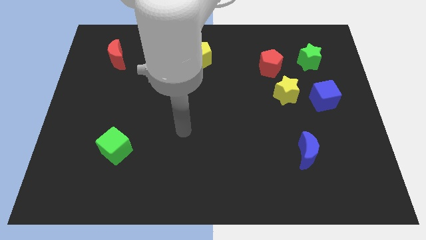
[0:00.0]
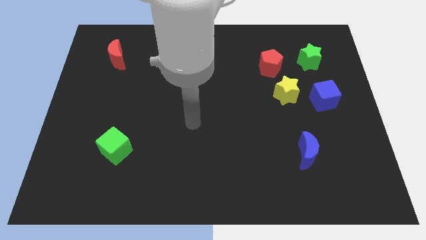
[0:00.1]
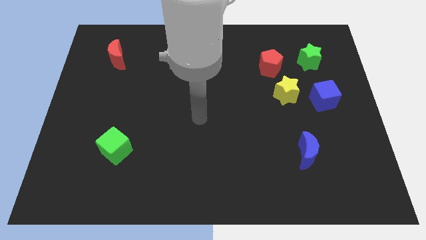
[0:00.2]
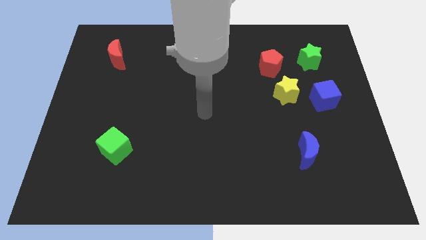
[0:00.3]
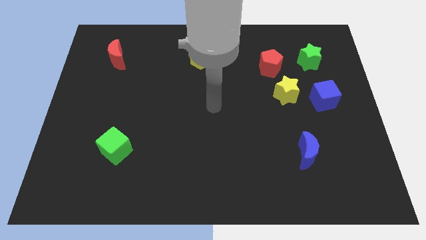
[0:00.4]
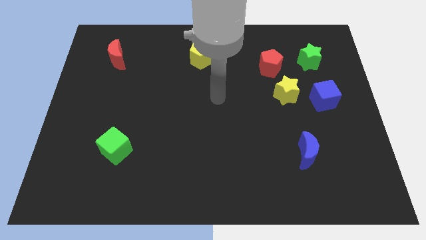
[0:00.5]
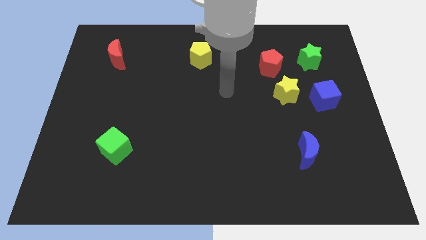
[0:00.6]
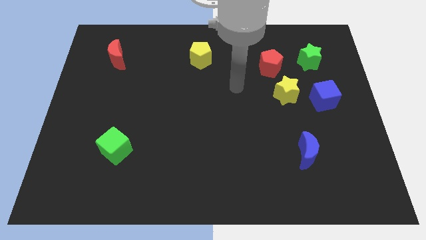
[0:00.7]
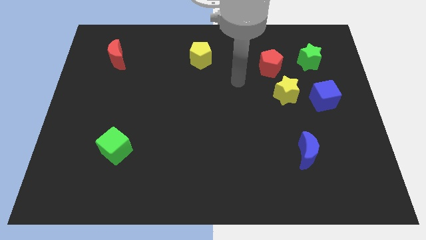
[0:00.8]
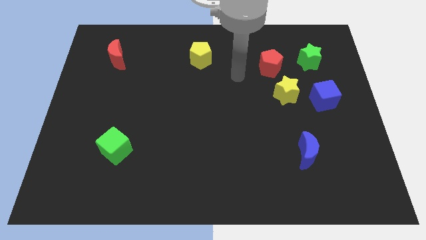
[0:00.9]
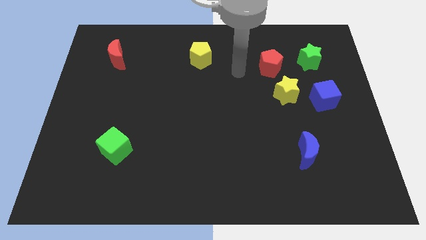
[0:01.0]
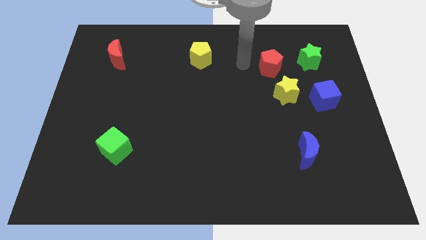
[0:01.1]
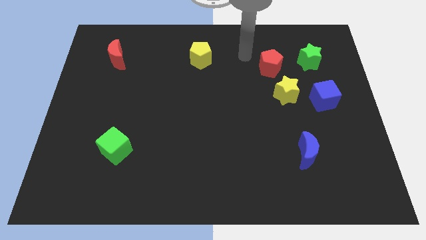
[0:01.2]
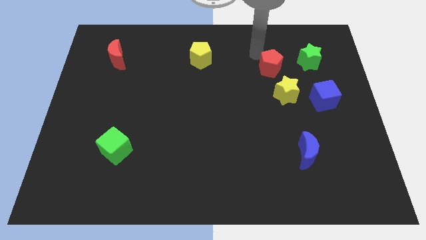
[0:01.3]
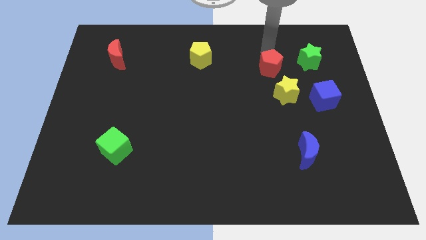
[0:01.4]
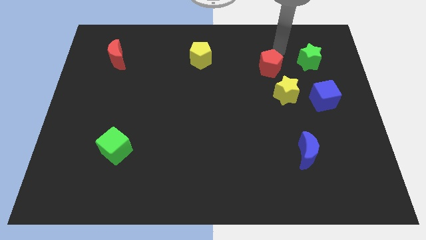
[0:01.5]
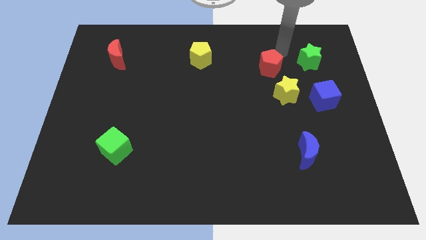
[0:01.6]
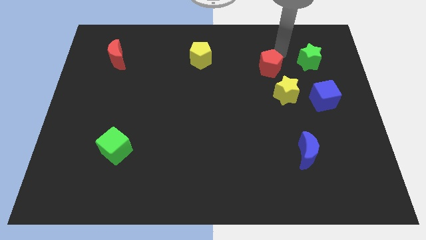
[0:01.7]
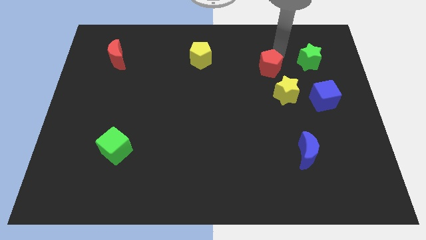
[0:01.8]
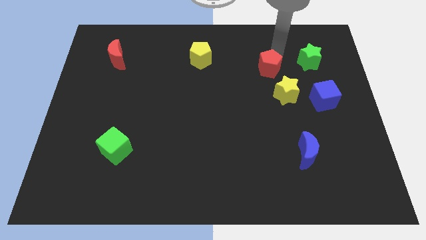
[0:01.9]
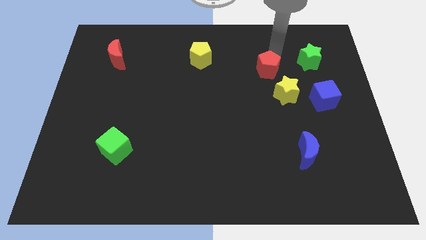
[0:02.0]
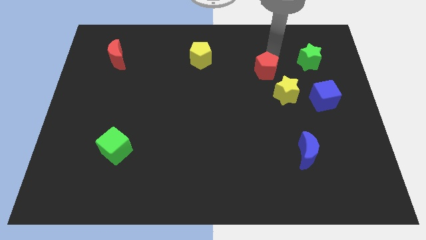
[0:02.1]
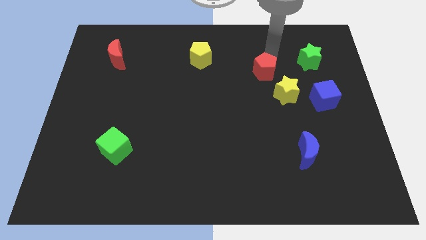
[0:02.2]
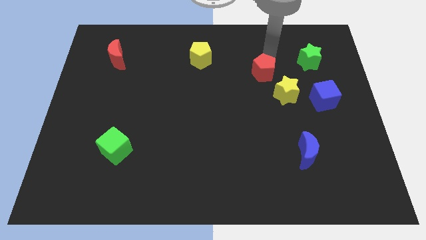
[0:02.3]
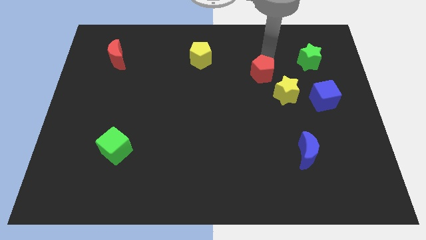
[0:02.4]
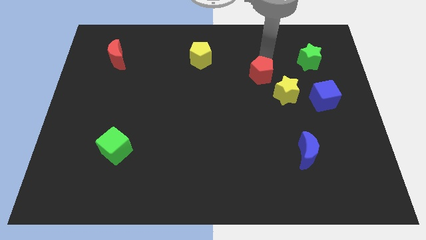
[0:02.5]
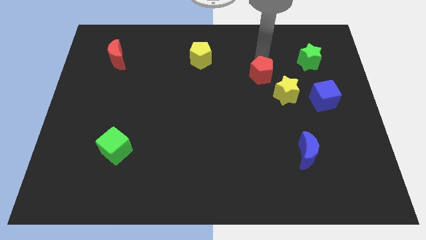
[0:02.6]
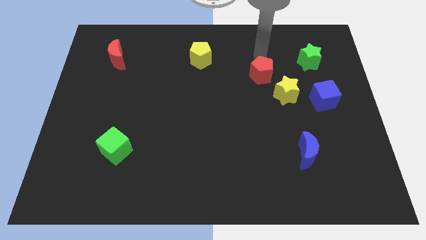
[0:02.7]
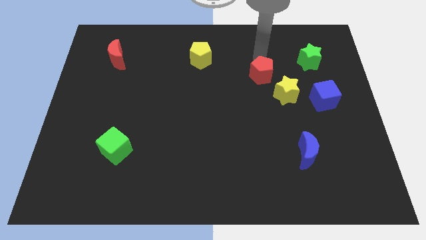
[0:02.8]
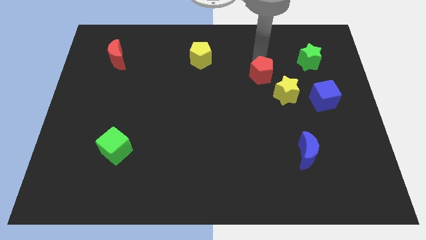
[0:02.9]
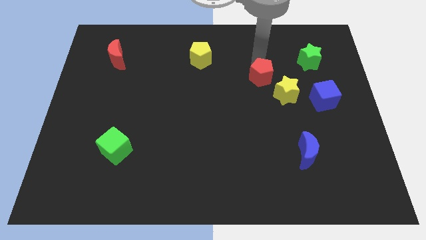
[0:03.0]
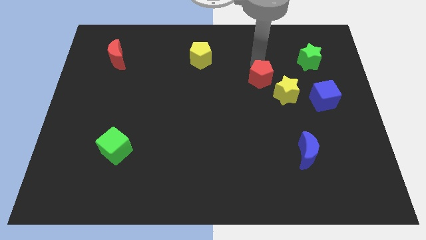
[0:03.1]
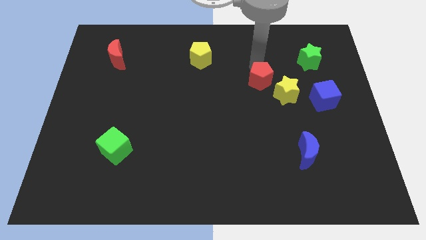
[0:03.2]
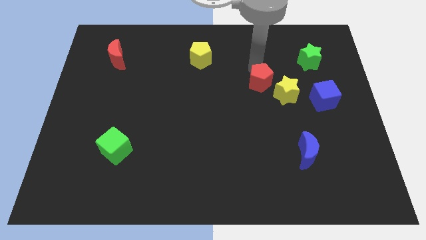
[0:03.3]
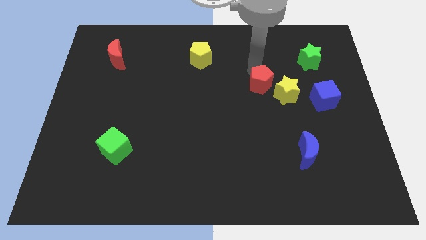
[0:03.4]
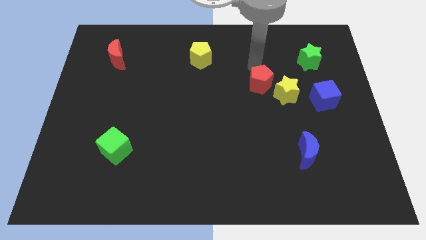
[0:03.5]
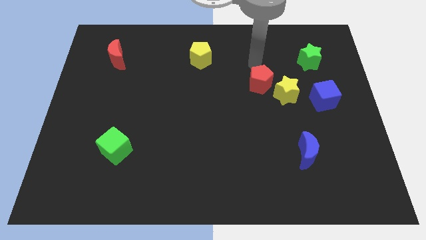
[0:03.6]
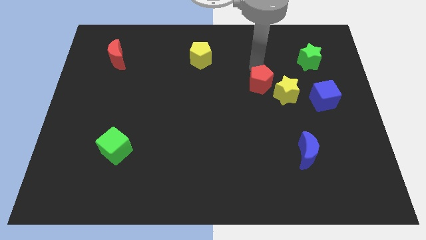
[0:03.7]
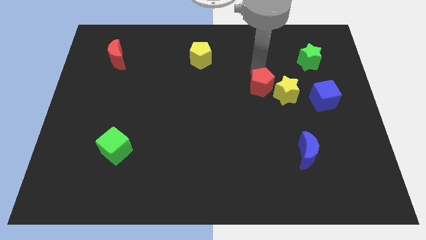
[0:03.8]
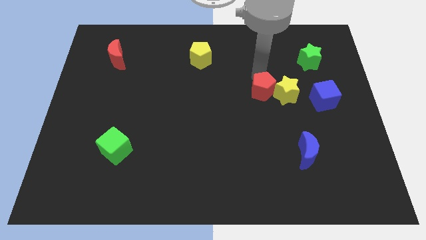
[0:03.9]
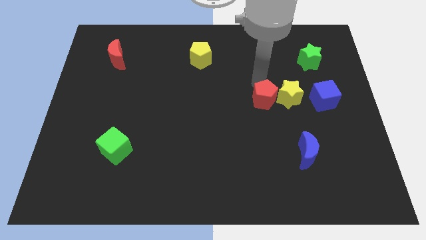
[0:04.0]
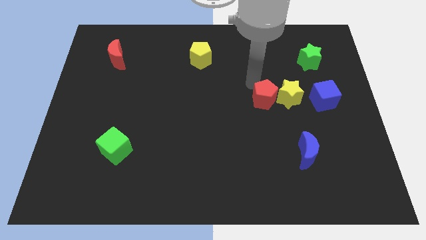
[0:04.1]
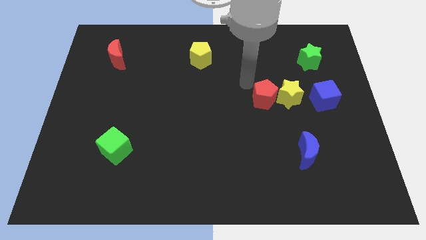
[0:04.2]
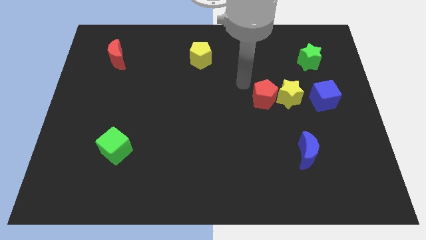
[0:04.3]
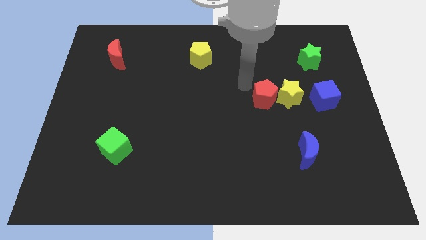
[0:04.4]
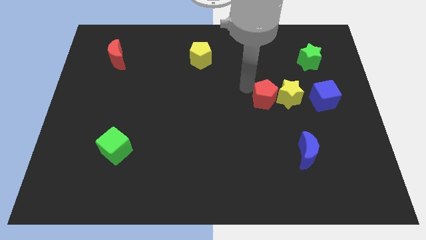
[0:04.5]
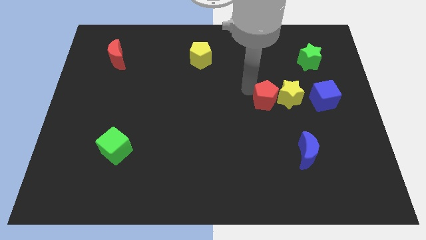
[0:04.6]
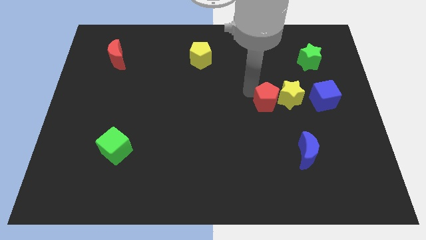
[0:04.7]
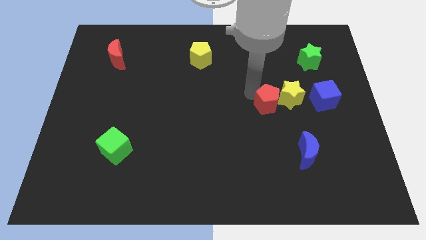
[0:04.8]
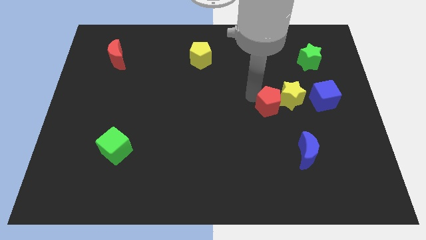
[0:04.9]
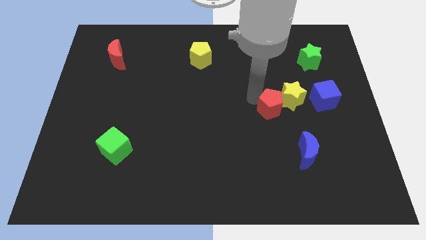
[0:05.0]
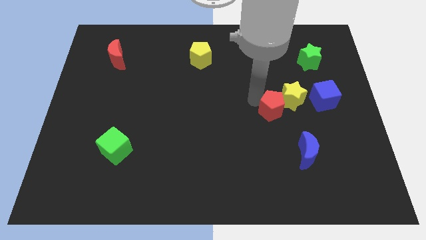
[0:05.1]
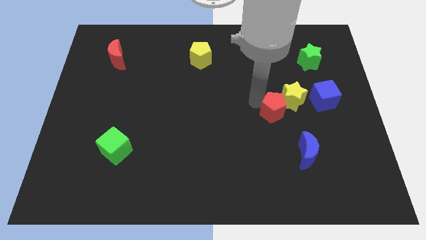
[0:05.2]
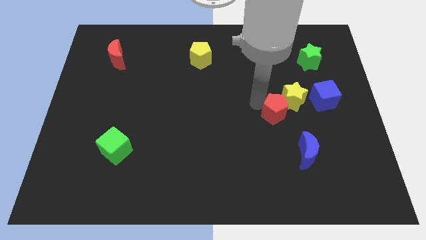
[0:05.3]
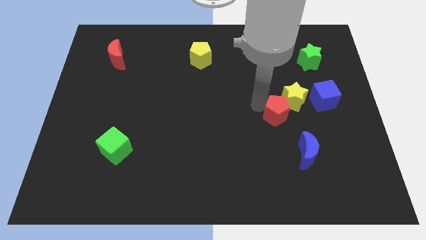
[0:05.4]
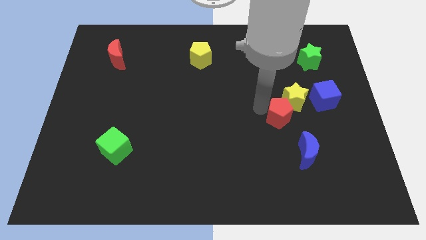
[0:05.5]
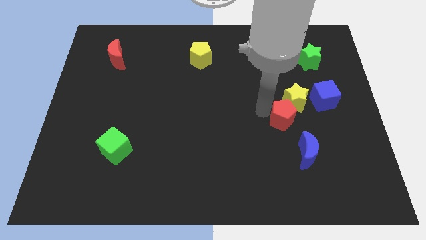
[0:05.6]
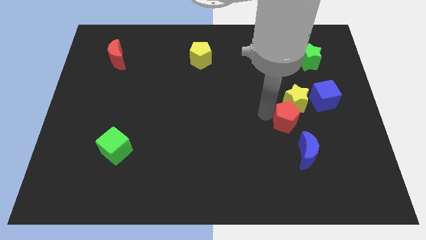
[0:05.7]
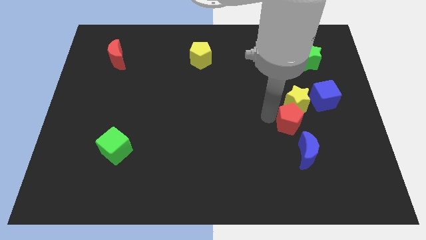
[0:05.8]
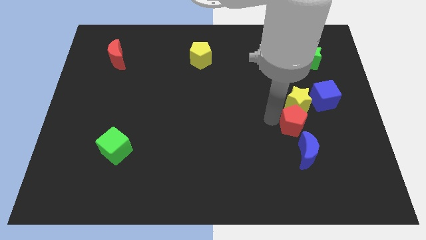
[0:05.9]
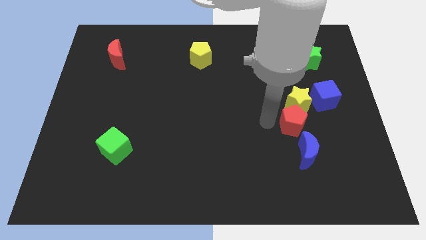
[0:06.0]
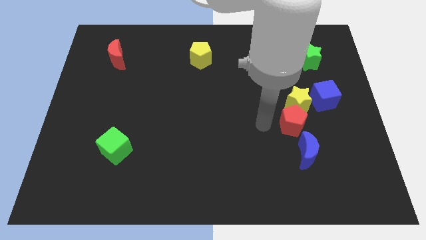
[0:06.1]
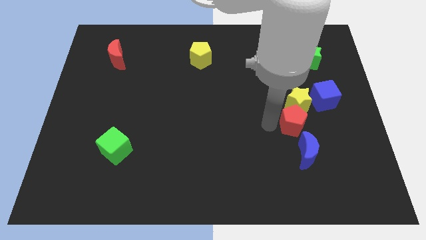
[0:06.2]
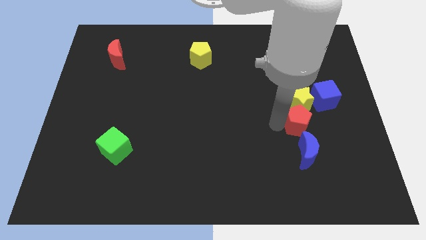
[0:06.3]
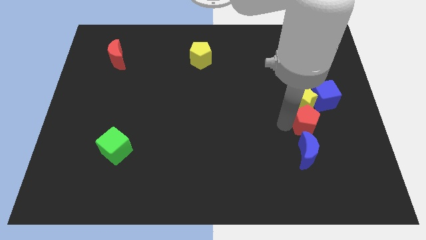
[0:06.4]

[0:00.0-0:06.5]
move the red pentagon to the bottom right side of the yellow star

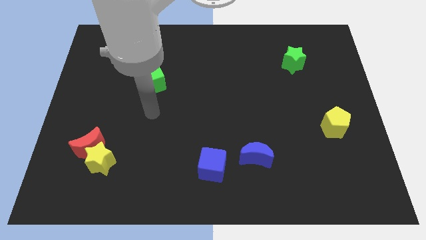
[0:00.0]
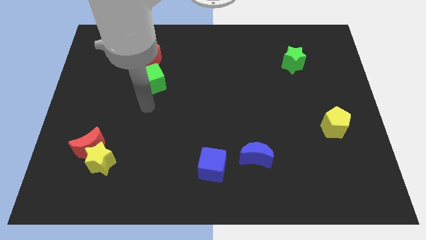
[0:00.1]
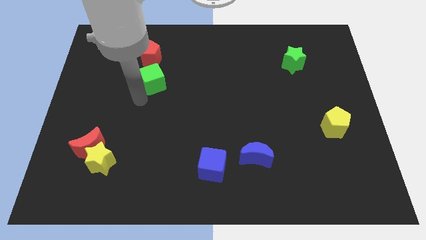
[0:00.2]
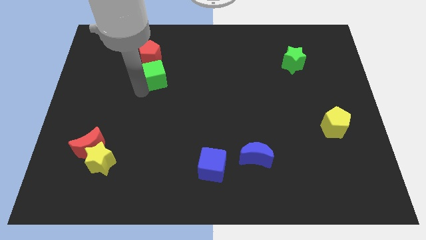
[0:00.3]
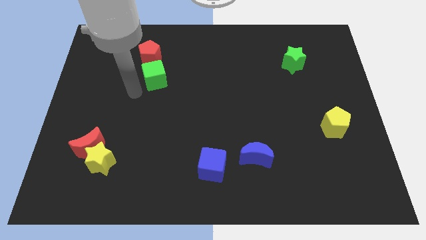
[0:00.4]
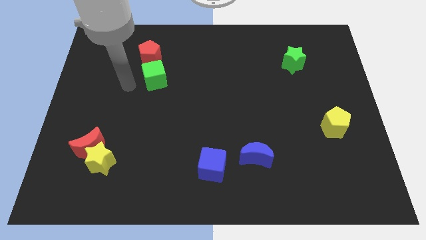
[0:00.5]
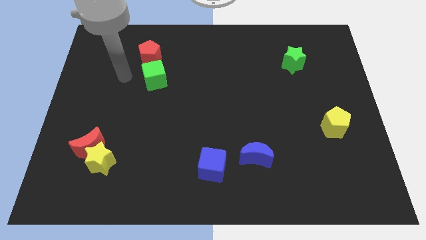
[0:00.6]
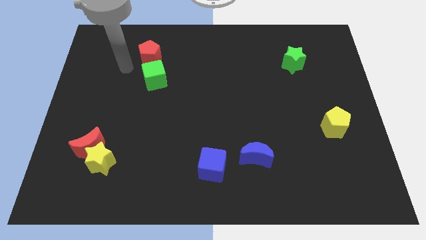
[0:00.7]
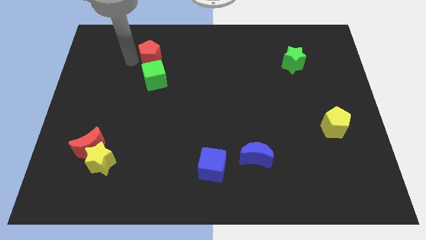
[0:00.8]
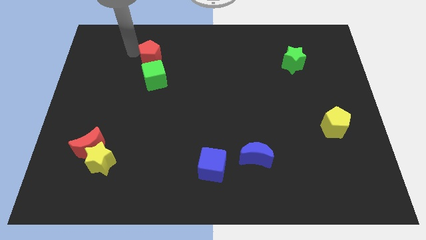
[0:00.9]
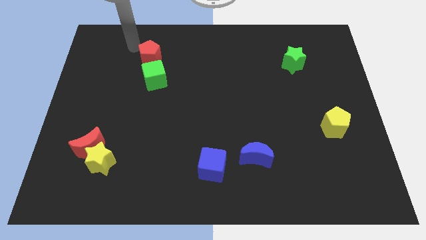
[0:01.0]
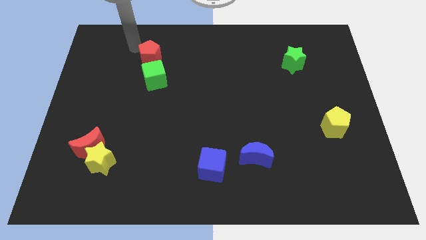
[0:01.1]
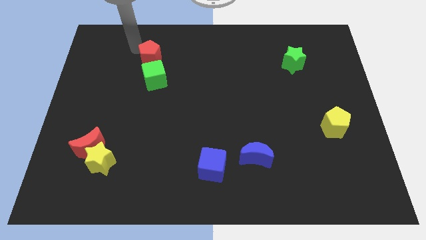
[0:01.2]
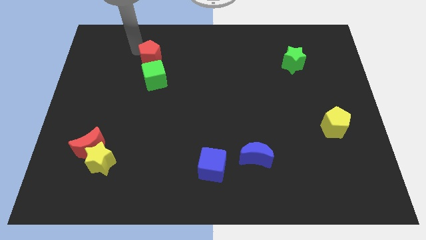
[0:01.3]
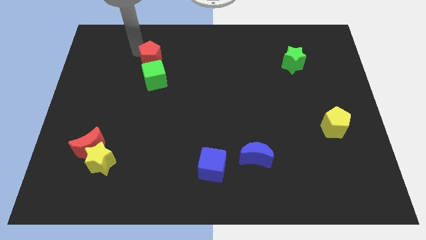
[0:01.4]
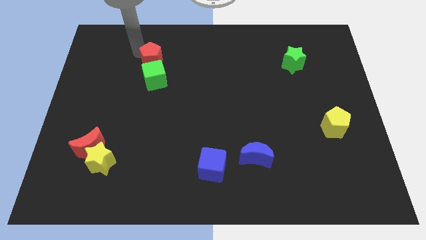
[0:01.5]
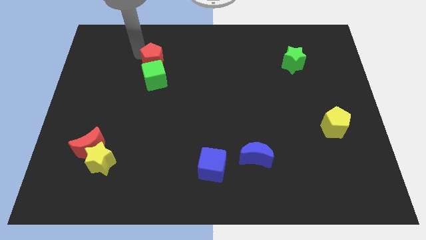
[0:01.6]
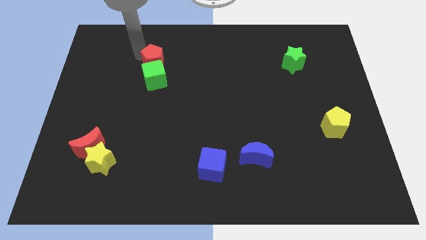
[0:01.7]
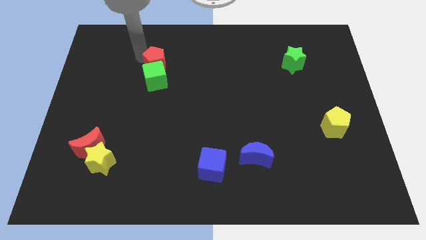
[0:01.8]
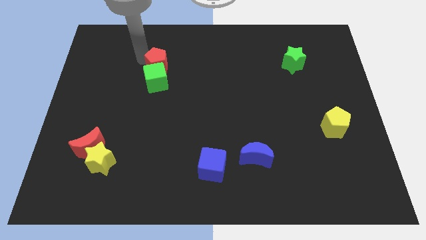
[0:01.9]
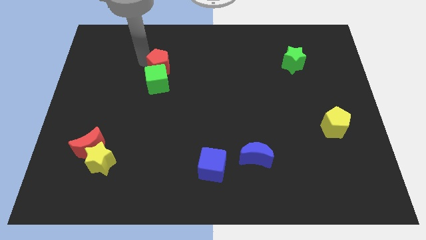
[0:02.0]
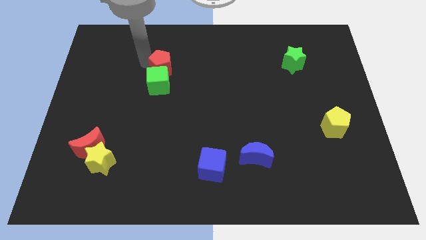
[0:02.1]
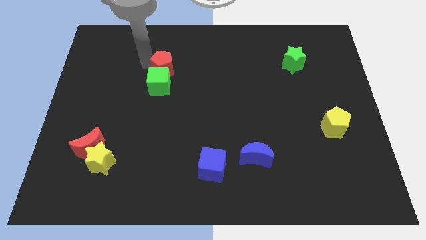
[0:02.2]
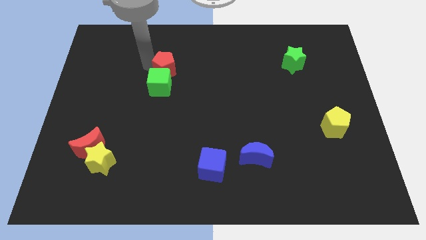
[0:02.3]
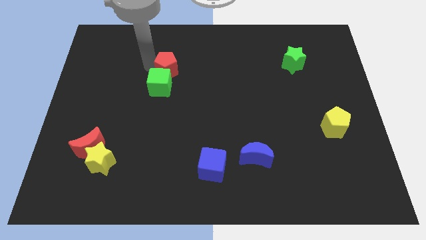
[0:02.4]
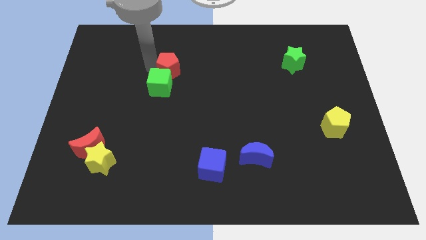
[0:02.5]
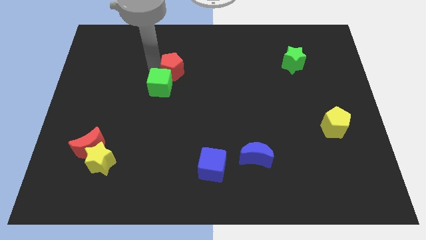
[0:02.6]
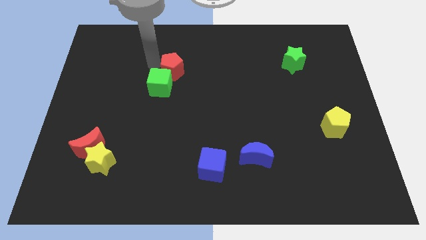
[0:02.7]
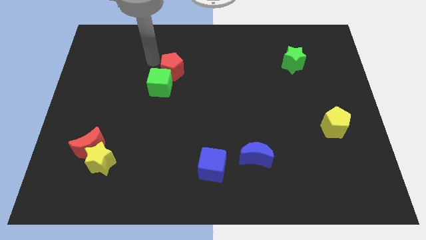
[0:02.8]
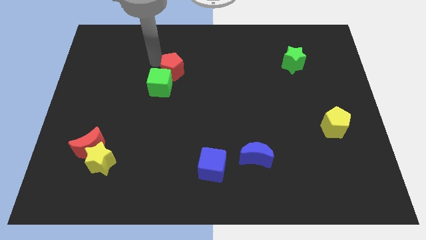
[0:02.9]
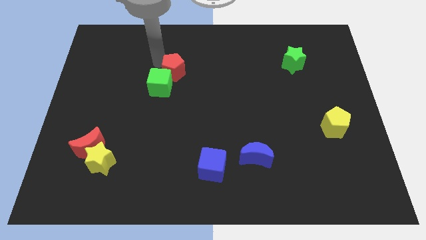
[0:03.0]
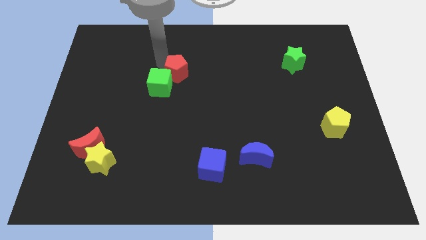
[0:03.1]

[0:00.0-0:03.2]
put the red pentagon to the right of the green cube
